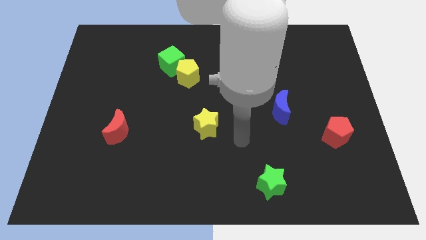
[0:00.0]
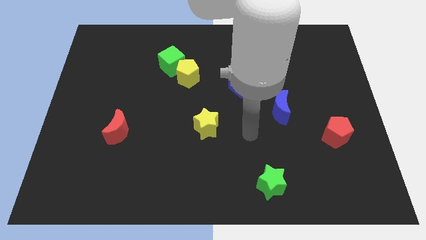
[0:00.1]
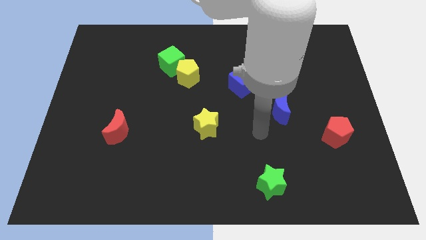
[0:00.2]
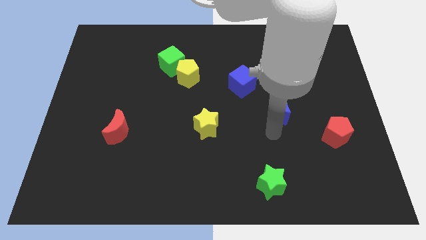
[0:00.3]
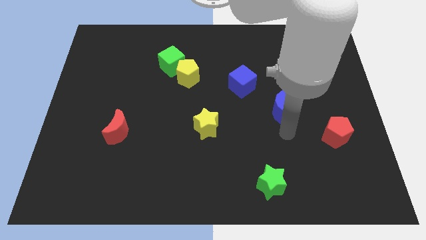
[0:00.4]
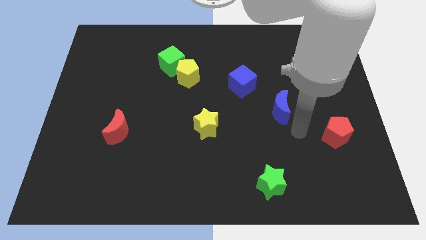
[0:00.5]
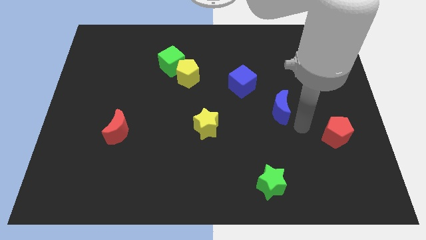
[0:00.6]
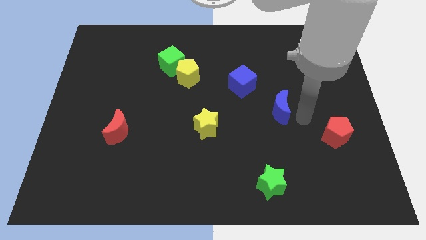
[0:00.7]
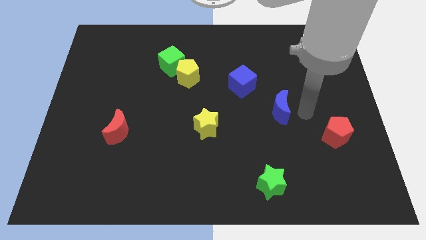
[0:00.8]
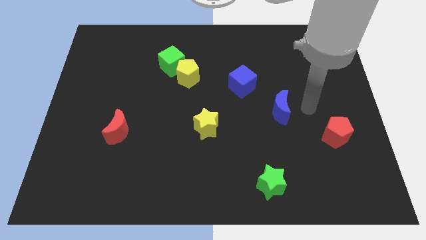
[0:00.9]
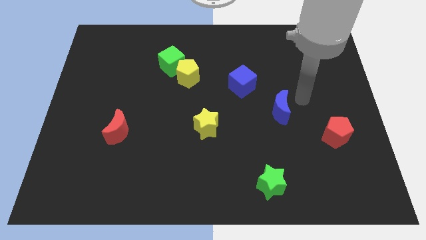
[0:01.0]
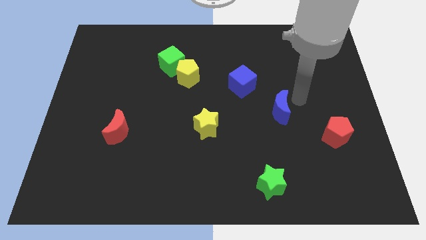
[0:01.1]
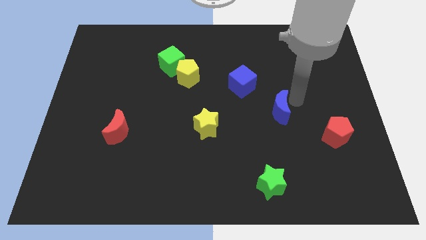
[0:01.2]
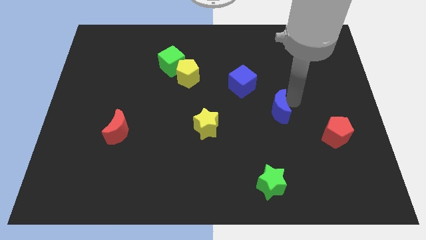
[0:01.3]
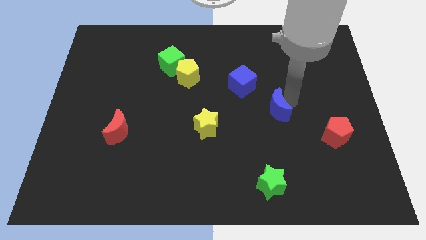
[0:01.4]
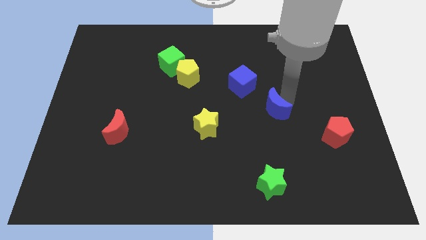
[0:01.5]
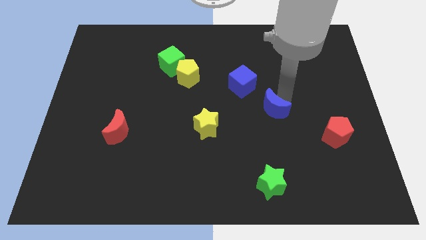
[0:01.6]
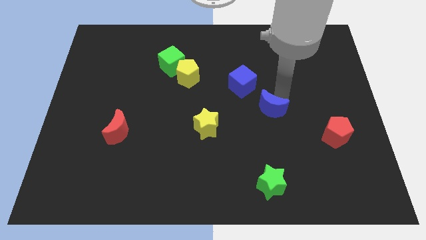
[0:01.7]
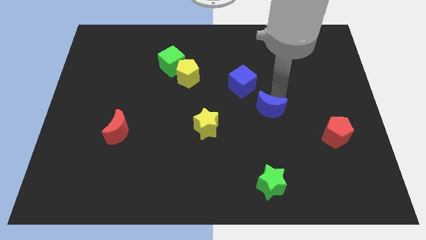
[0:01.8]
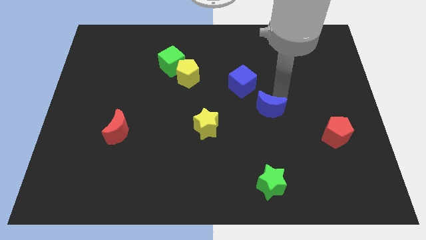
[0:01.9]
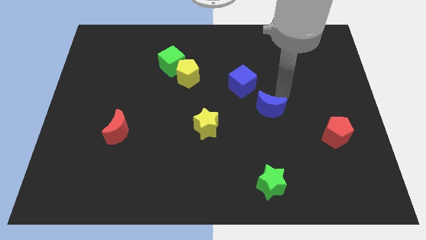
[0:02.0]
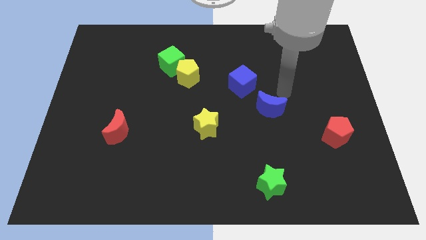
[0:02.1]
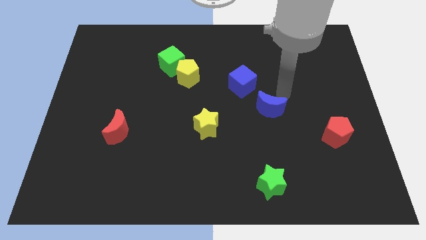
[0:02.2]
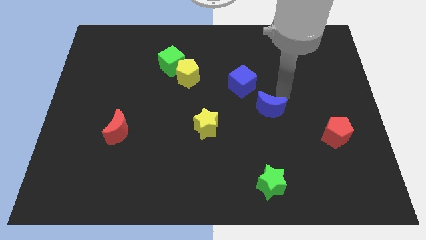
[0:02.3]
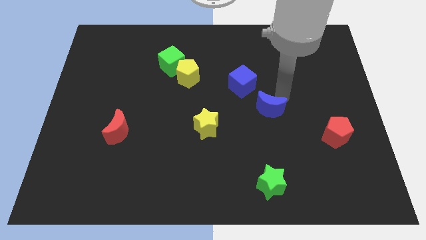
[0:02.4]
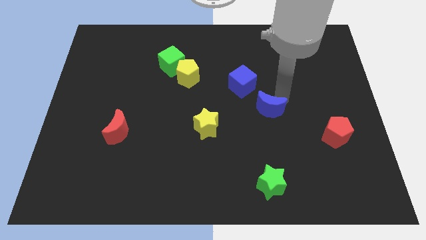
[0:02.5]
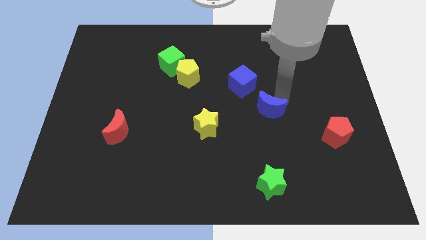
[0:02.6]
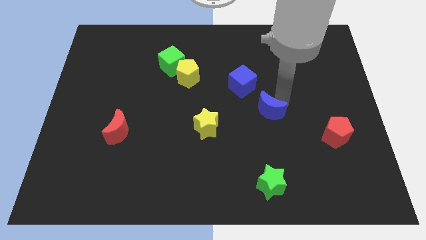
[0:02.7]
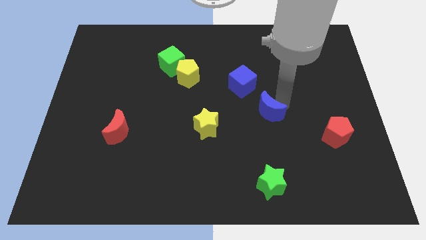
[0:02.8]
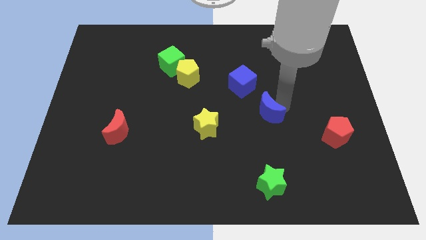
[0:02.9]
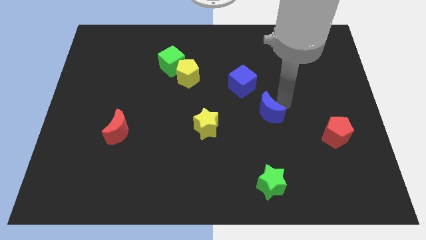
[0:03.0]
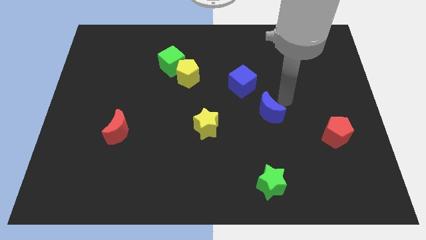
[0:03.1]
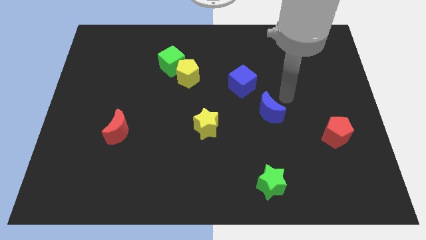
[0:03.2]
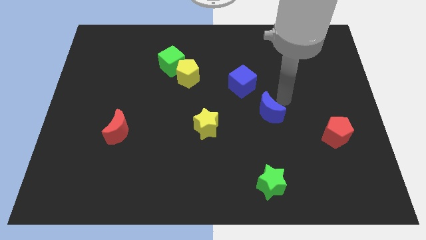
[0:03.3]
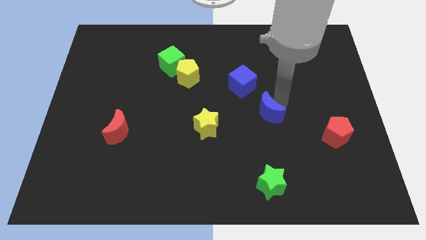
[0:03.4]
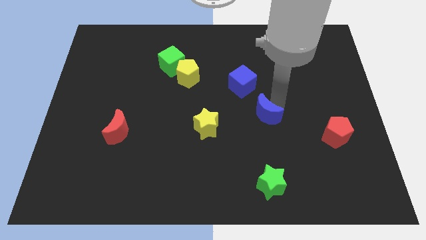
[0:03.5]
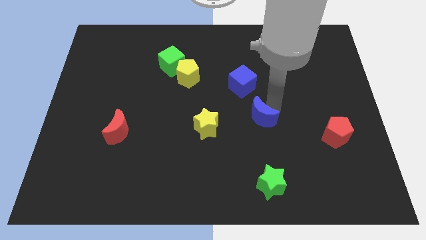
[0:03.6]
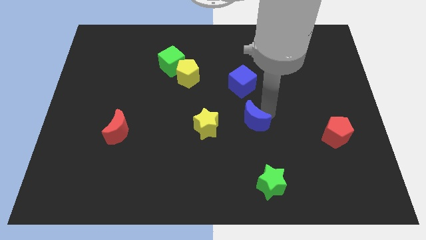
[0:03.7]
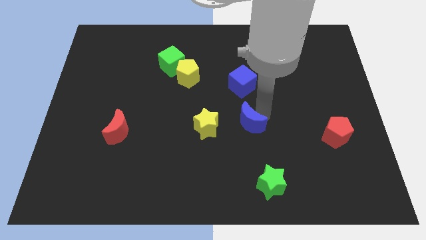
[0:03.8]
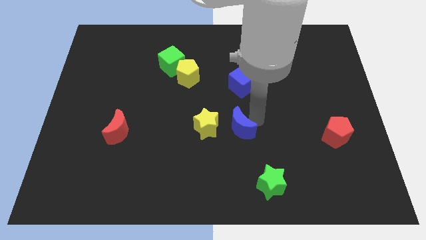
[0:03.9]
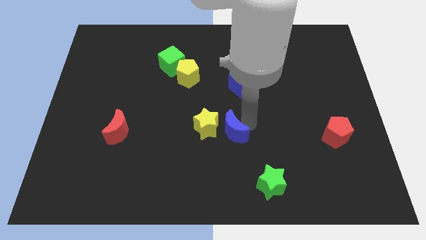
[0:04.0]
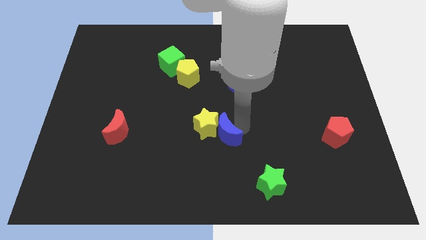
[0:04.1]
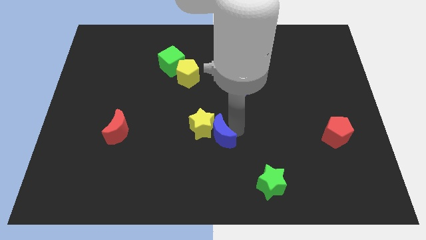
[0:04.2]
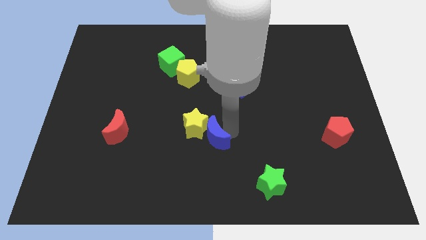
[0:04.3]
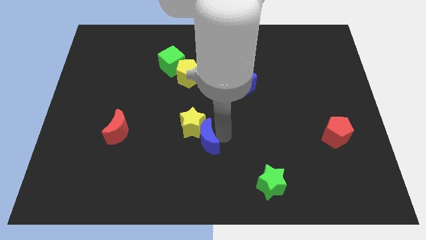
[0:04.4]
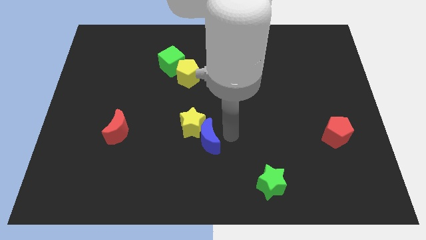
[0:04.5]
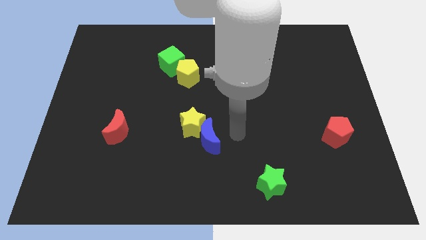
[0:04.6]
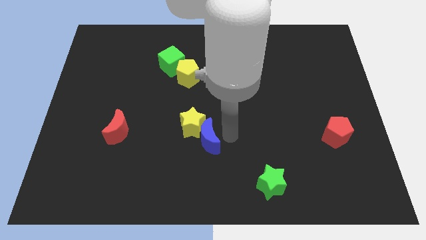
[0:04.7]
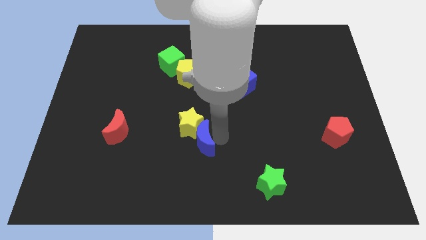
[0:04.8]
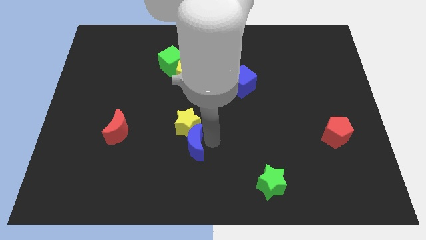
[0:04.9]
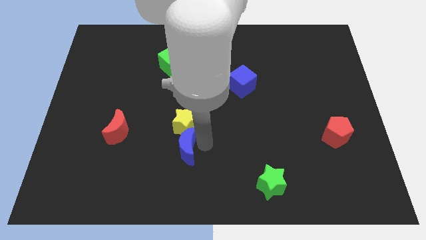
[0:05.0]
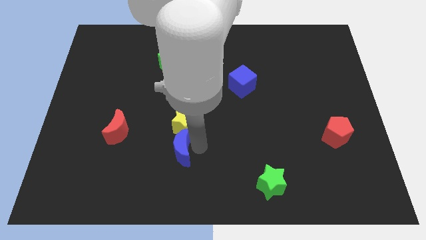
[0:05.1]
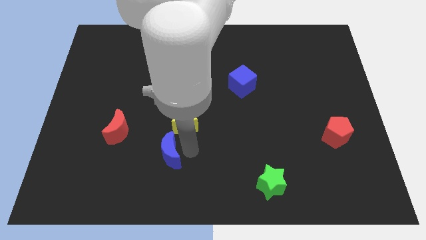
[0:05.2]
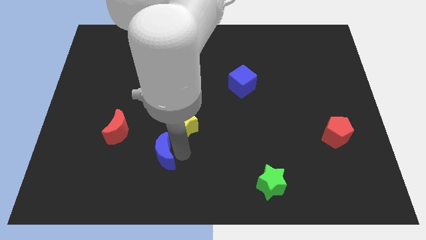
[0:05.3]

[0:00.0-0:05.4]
put the blue moon to the bottom right side of the red moon
